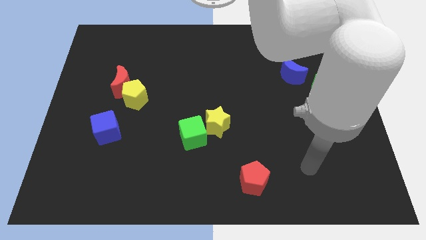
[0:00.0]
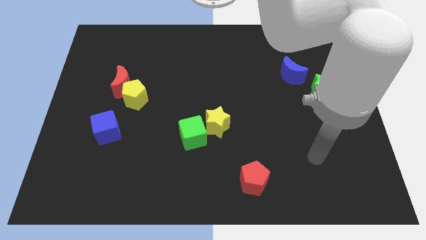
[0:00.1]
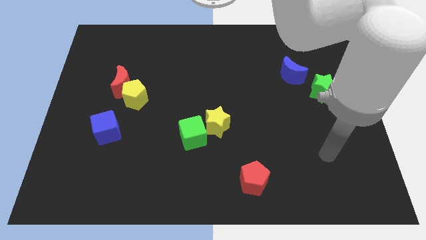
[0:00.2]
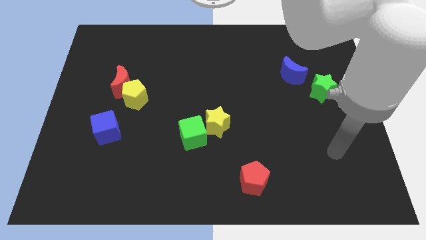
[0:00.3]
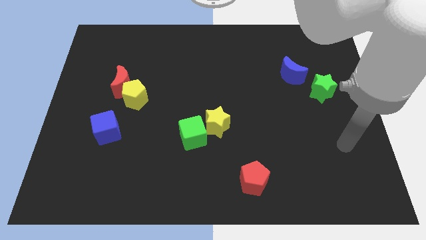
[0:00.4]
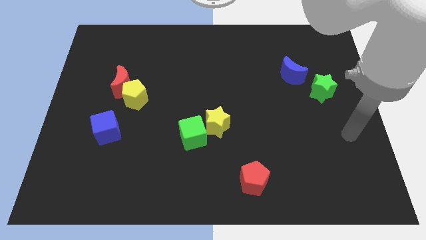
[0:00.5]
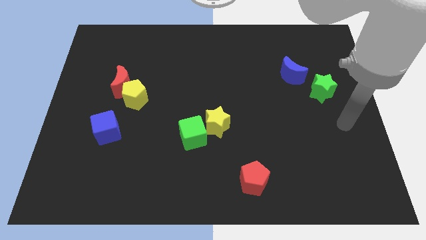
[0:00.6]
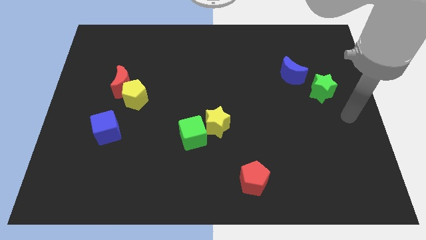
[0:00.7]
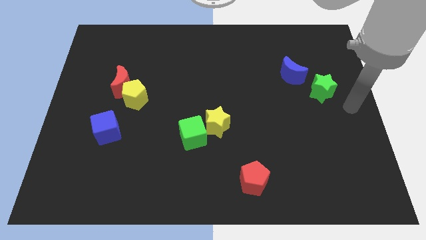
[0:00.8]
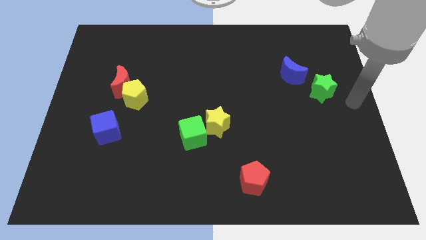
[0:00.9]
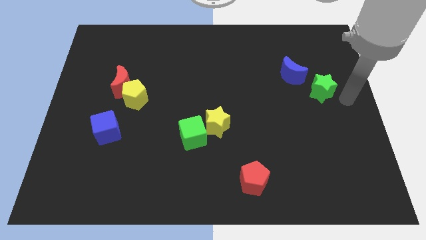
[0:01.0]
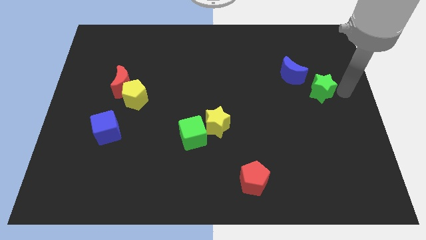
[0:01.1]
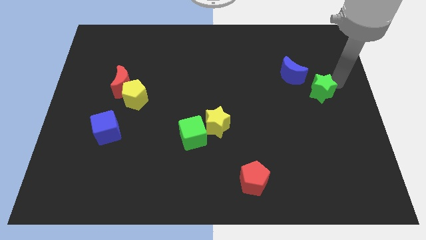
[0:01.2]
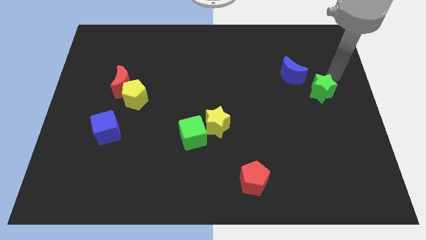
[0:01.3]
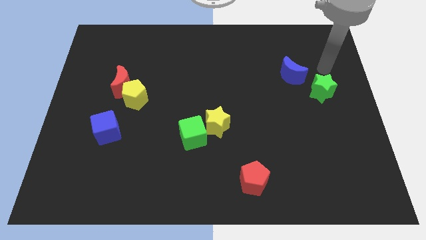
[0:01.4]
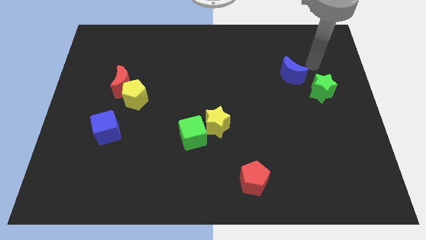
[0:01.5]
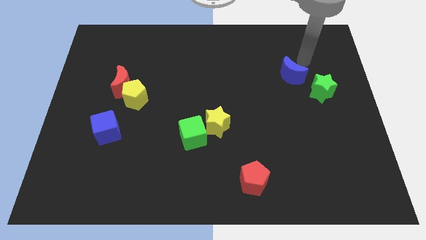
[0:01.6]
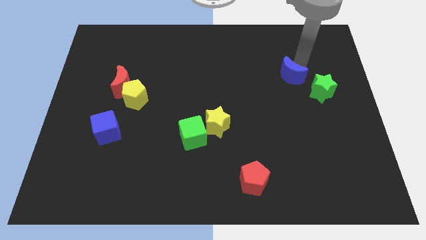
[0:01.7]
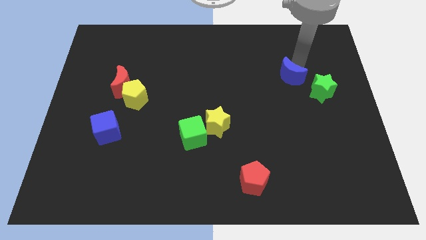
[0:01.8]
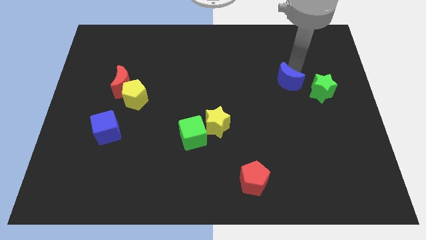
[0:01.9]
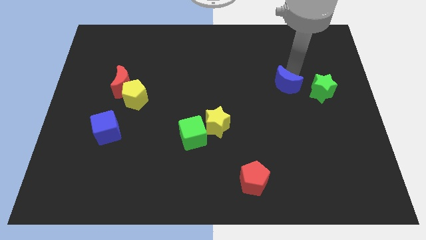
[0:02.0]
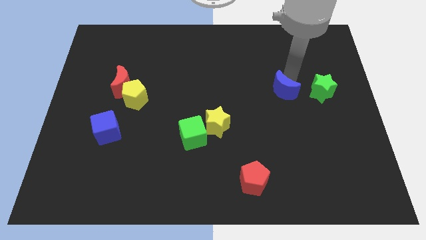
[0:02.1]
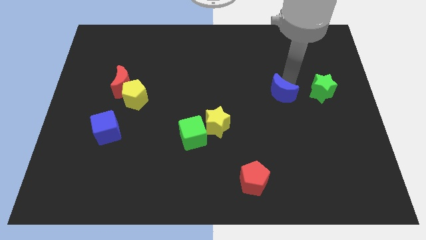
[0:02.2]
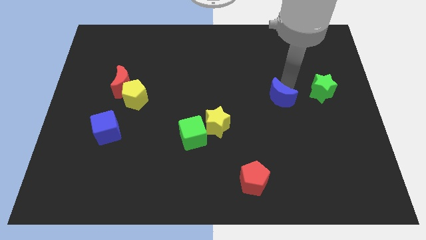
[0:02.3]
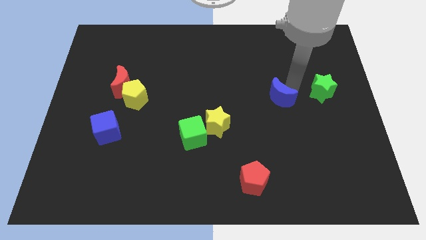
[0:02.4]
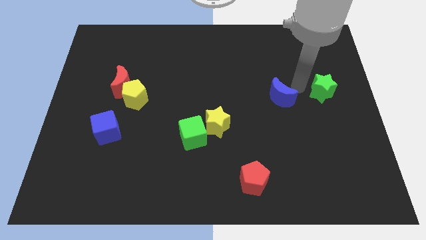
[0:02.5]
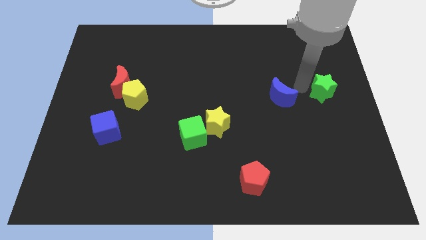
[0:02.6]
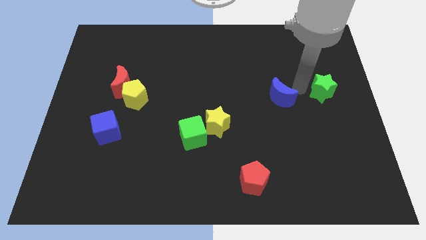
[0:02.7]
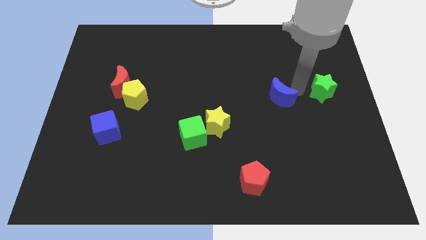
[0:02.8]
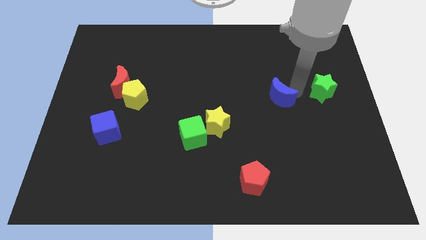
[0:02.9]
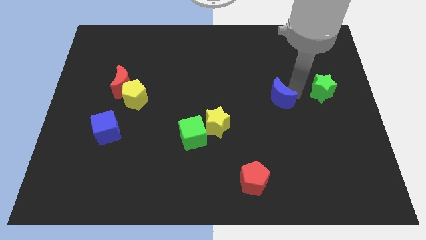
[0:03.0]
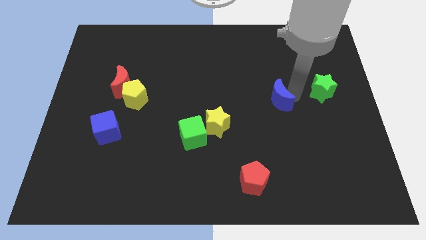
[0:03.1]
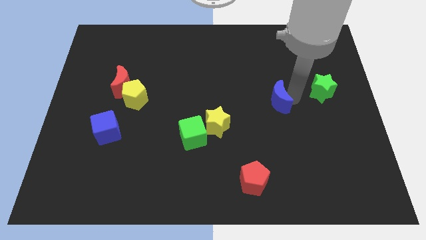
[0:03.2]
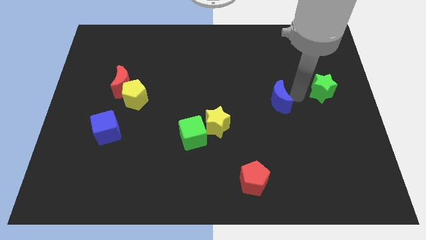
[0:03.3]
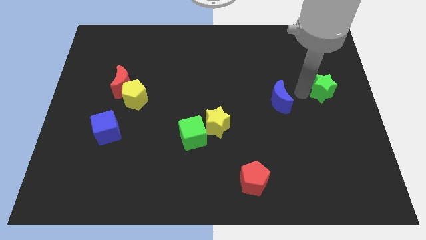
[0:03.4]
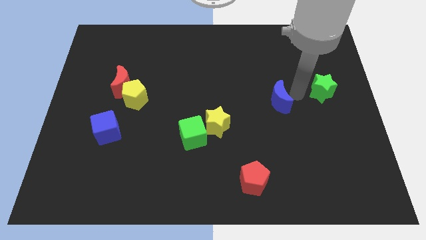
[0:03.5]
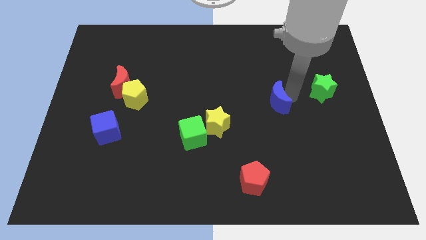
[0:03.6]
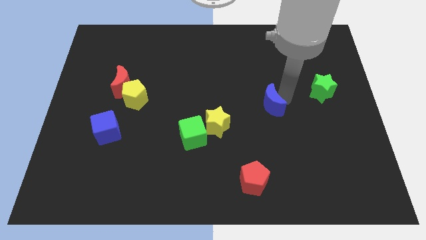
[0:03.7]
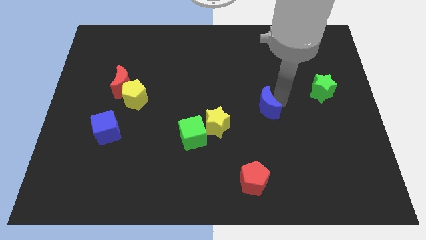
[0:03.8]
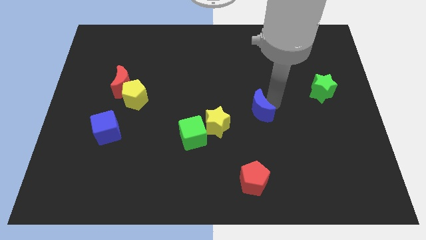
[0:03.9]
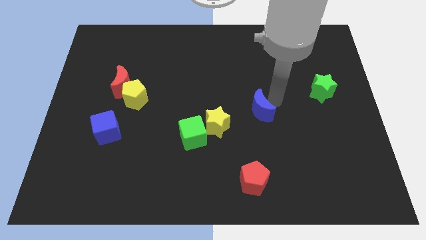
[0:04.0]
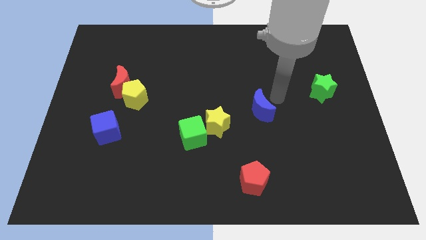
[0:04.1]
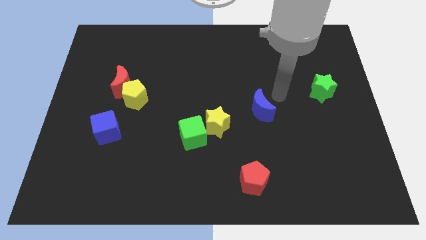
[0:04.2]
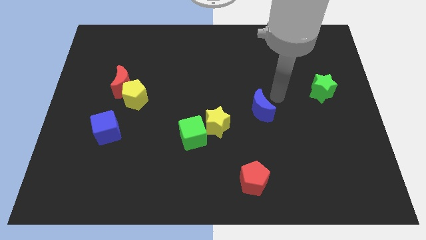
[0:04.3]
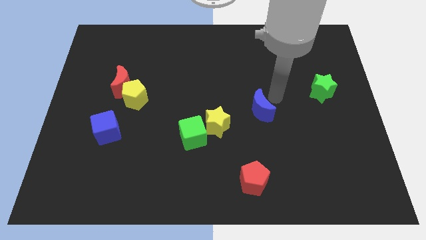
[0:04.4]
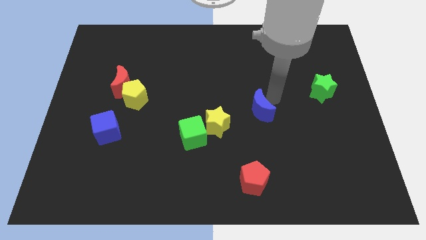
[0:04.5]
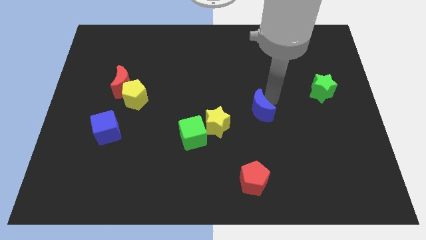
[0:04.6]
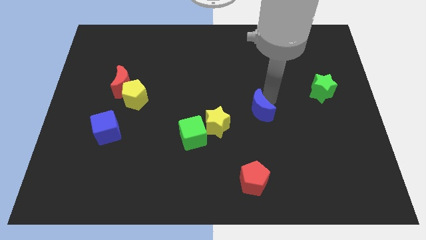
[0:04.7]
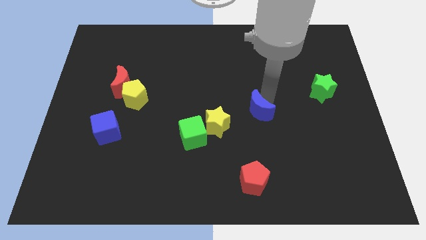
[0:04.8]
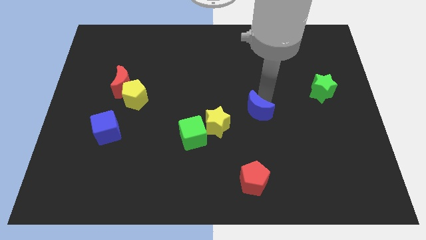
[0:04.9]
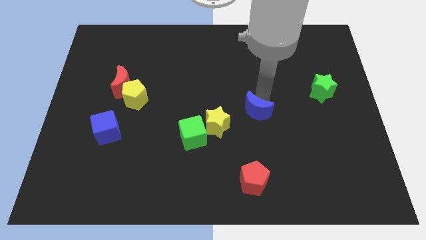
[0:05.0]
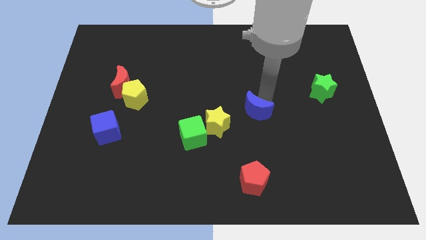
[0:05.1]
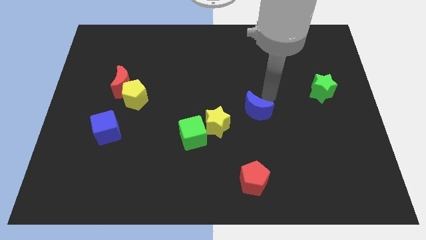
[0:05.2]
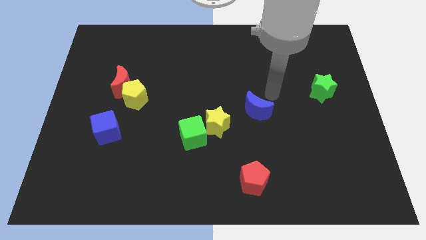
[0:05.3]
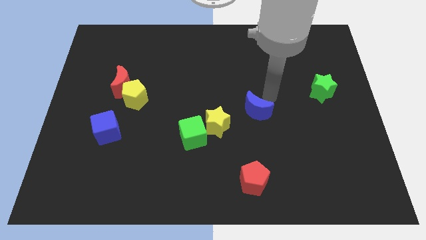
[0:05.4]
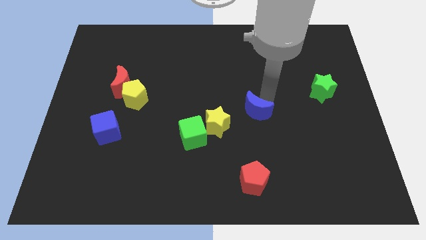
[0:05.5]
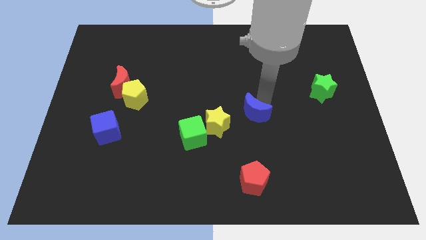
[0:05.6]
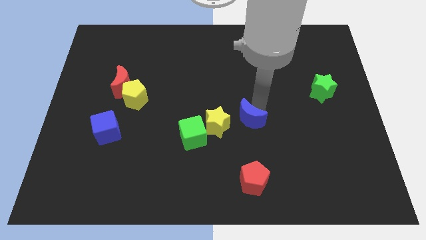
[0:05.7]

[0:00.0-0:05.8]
push the blue moon to the right of the green cube
